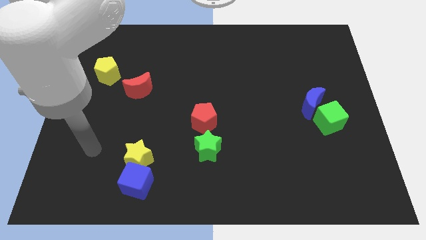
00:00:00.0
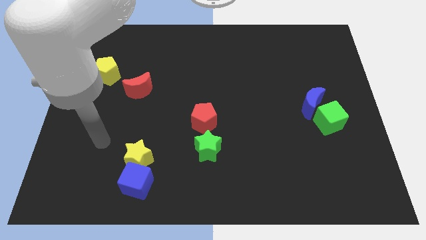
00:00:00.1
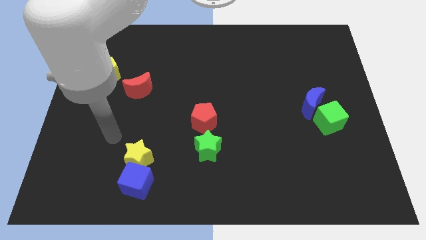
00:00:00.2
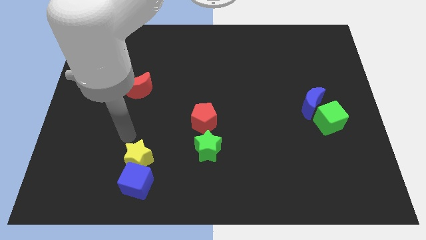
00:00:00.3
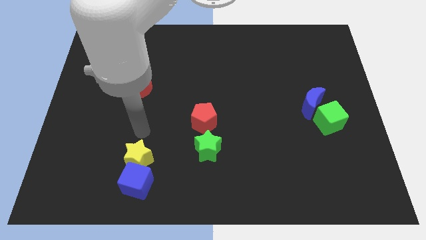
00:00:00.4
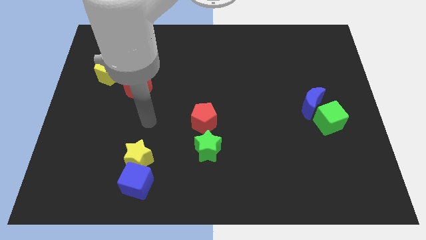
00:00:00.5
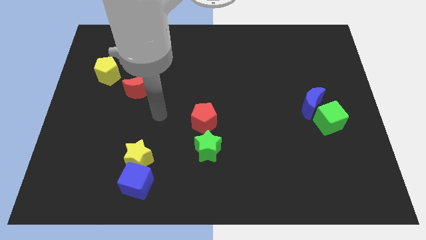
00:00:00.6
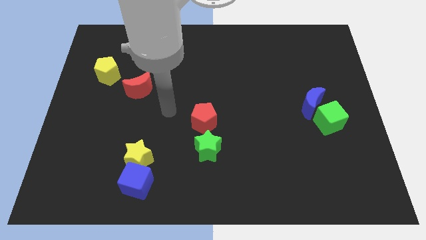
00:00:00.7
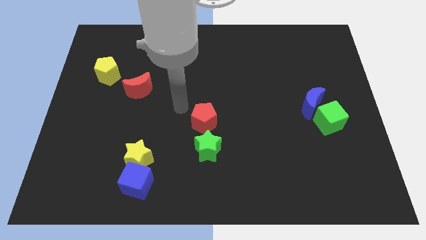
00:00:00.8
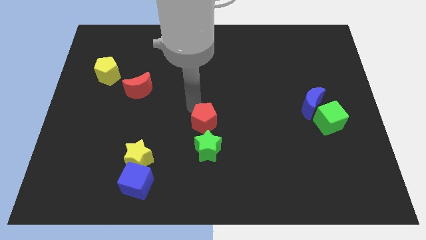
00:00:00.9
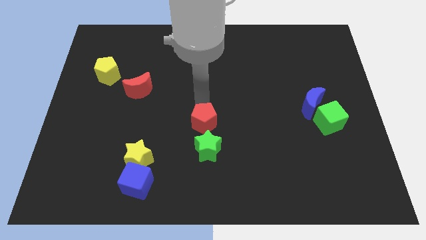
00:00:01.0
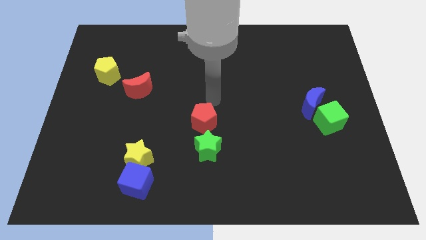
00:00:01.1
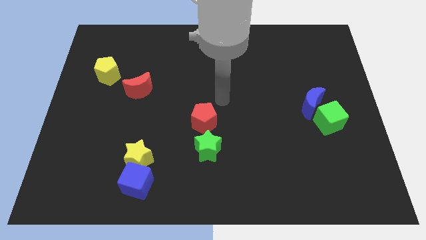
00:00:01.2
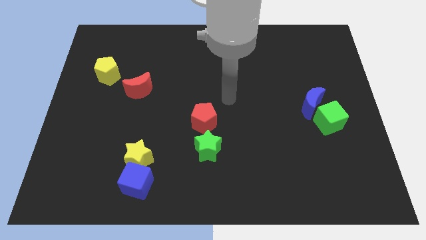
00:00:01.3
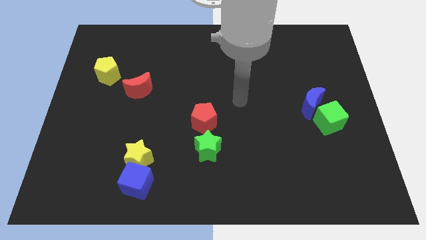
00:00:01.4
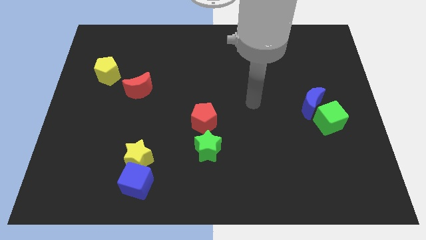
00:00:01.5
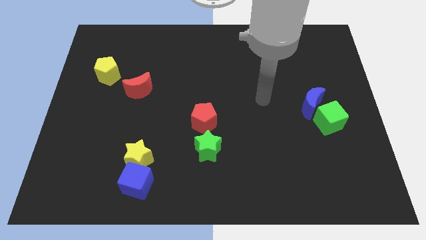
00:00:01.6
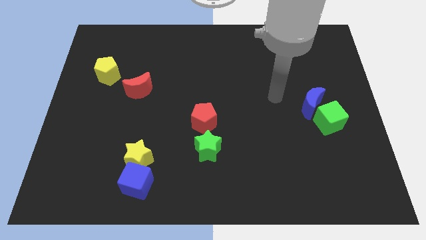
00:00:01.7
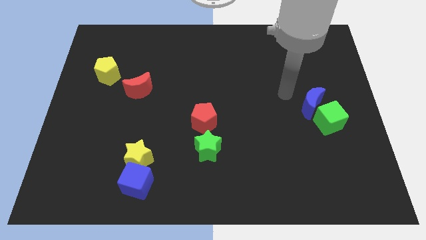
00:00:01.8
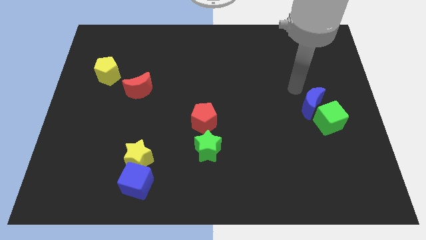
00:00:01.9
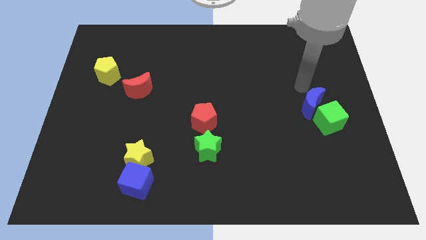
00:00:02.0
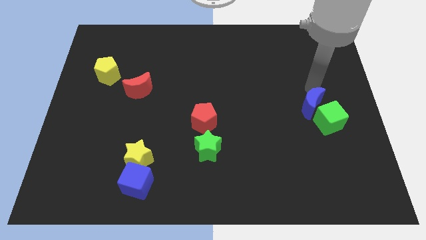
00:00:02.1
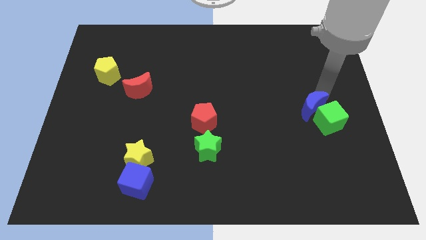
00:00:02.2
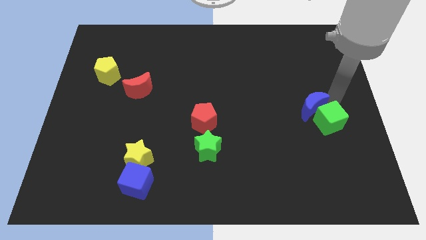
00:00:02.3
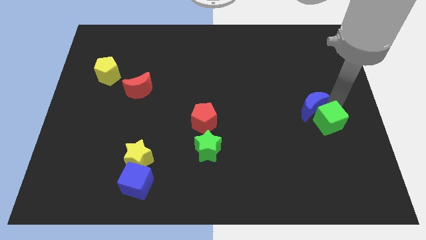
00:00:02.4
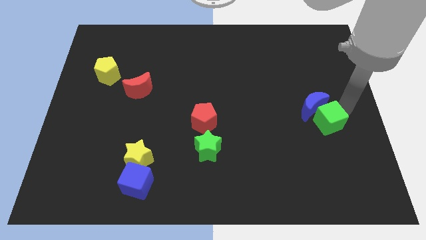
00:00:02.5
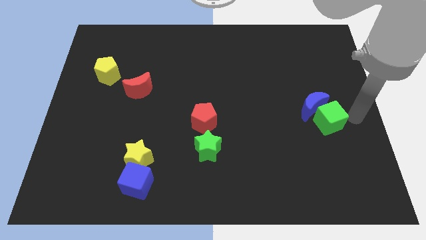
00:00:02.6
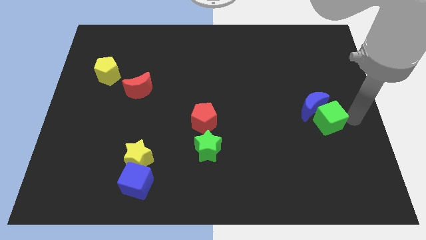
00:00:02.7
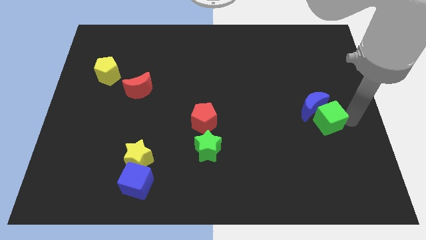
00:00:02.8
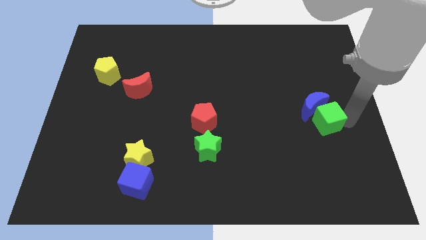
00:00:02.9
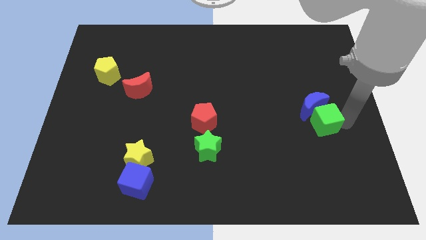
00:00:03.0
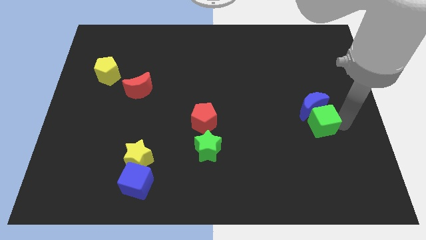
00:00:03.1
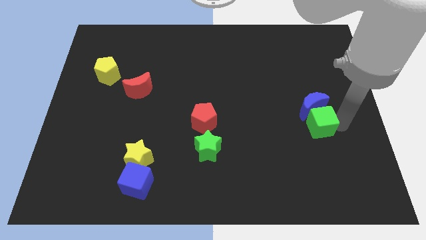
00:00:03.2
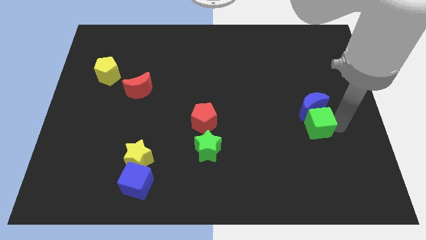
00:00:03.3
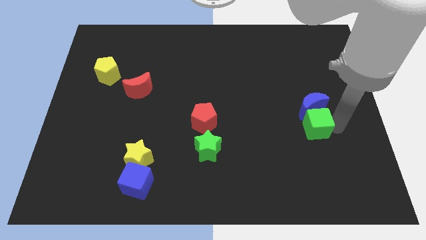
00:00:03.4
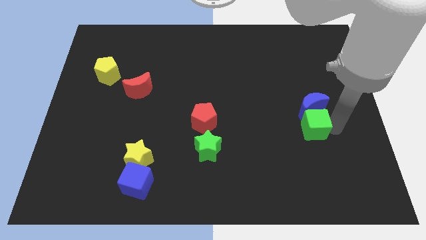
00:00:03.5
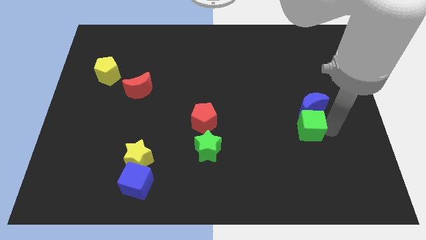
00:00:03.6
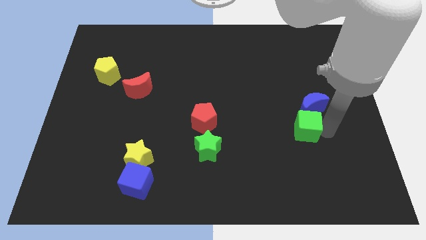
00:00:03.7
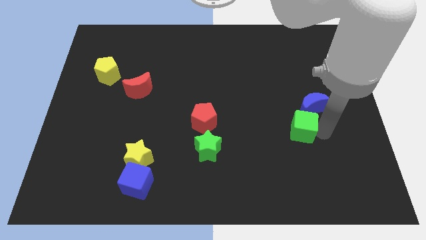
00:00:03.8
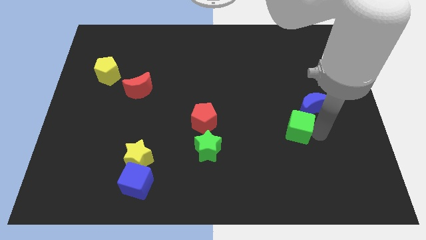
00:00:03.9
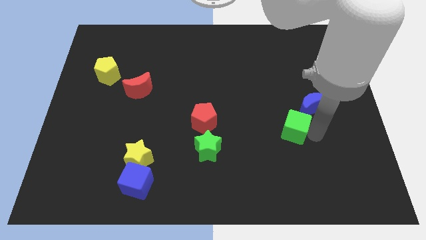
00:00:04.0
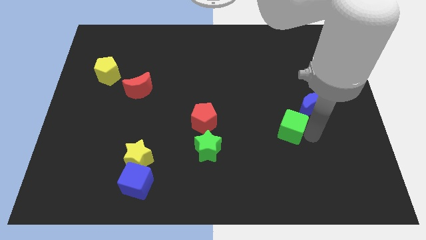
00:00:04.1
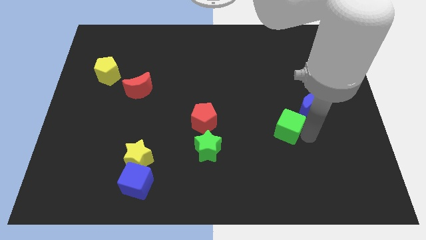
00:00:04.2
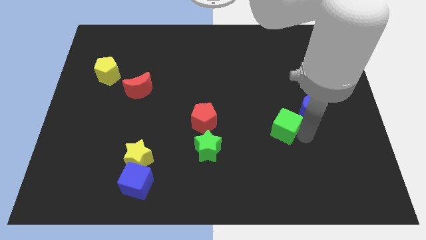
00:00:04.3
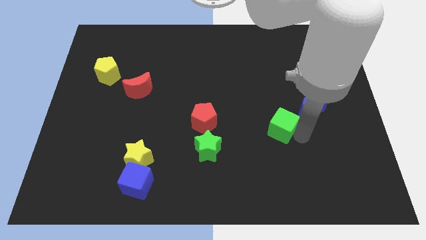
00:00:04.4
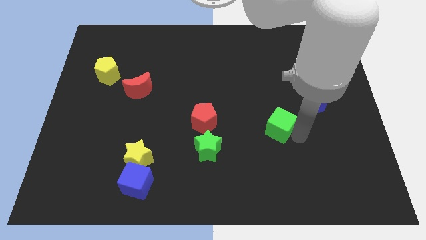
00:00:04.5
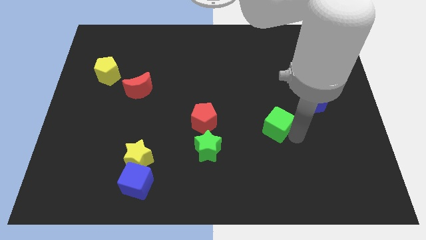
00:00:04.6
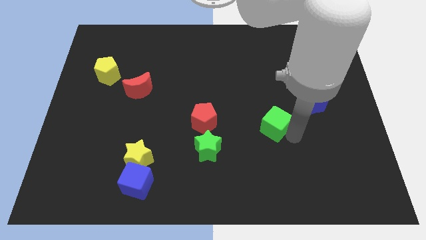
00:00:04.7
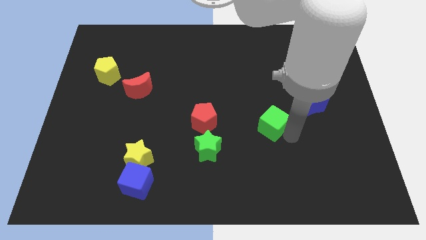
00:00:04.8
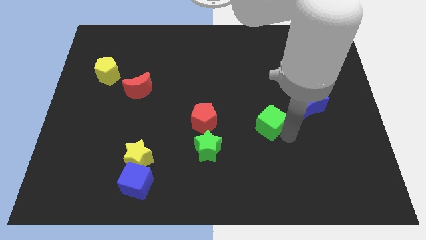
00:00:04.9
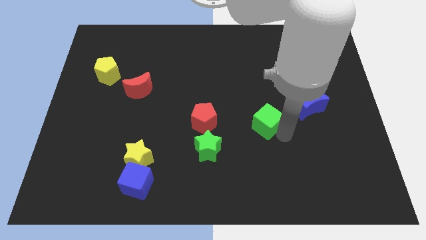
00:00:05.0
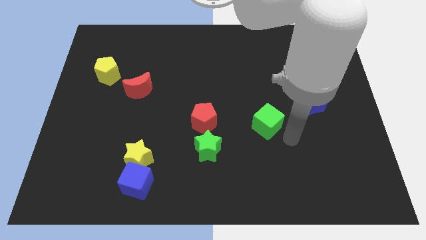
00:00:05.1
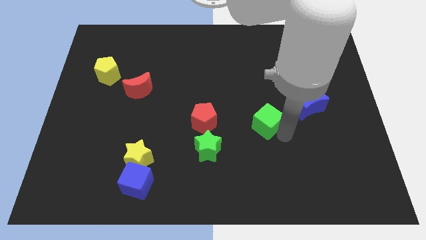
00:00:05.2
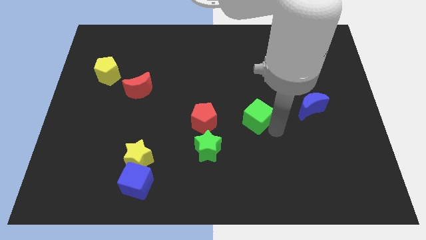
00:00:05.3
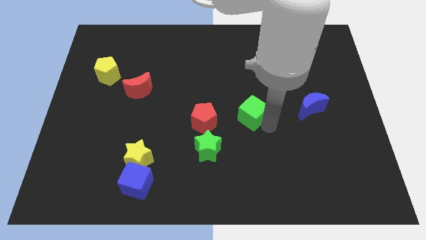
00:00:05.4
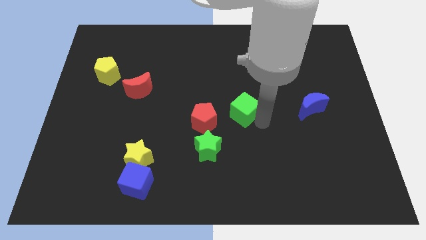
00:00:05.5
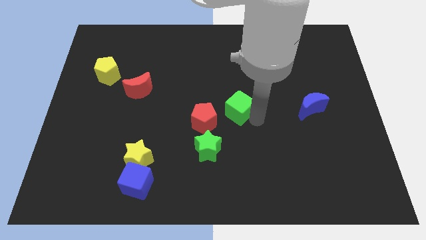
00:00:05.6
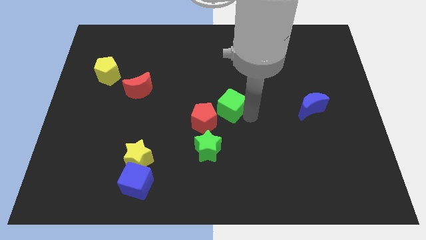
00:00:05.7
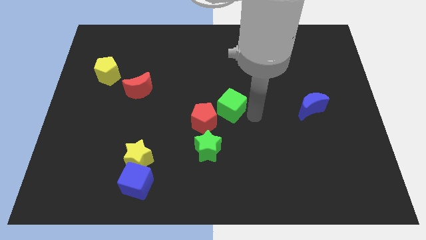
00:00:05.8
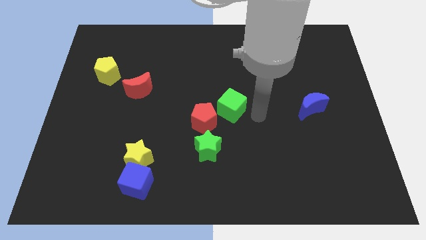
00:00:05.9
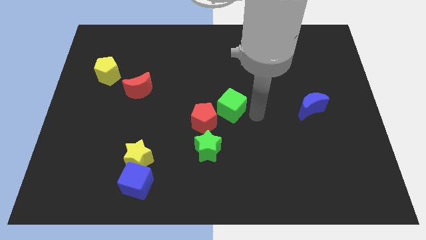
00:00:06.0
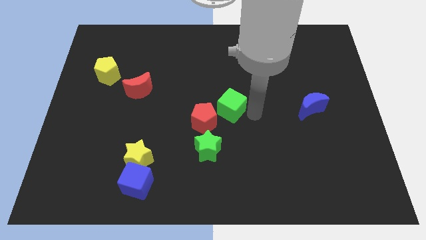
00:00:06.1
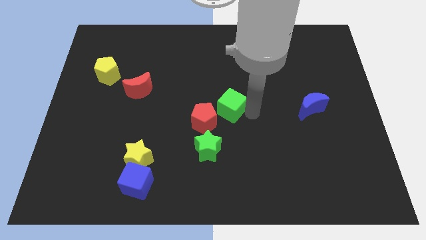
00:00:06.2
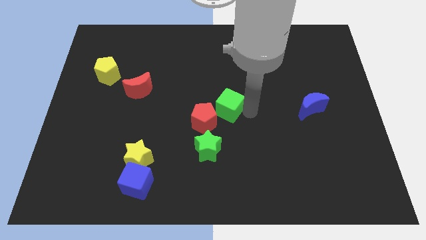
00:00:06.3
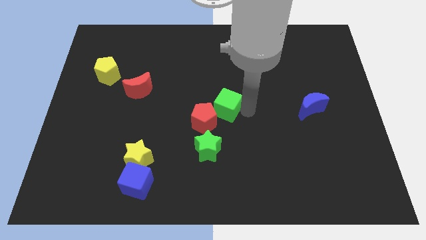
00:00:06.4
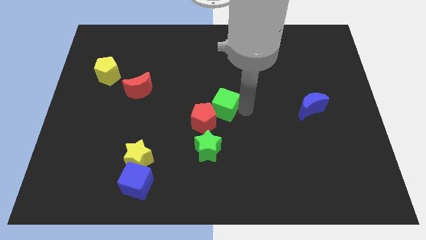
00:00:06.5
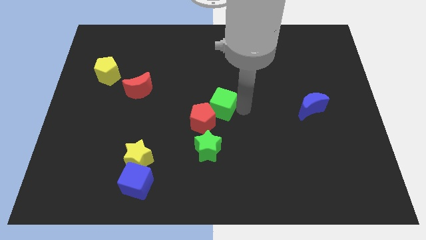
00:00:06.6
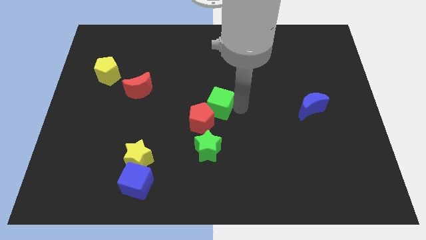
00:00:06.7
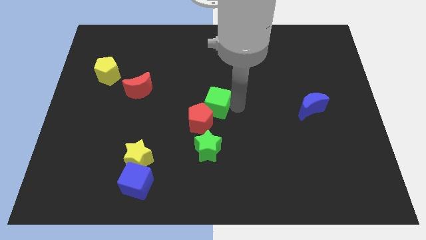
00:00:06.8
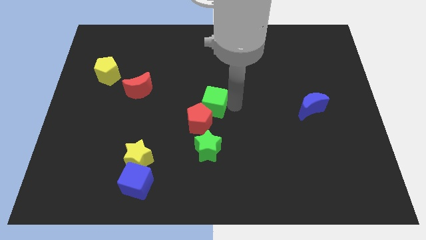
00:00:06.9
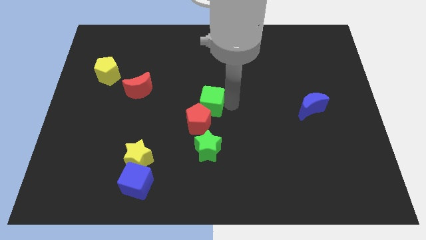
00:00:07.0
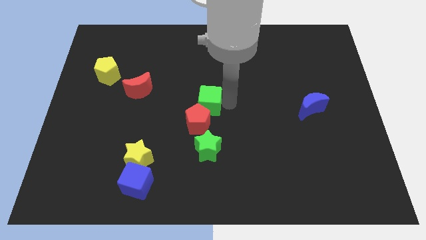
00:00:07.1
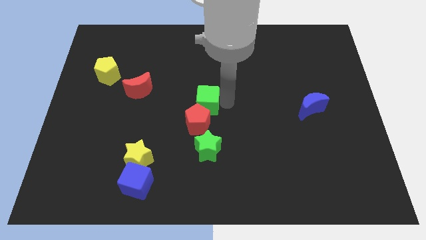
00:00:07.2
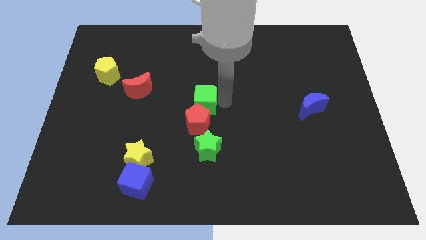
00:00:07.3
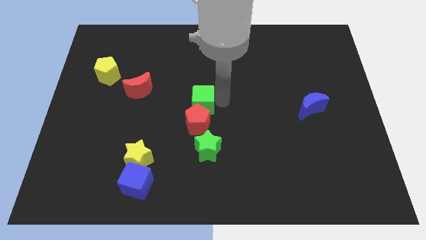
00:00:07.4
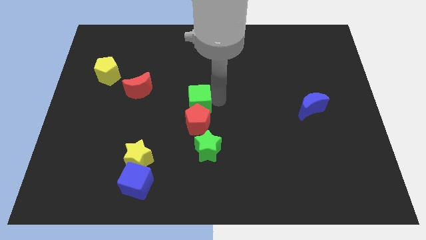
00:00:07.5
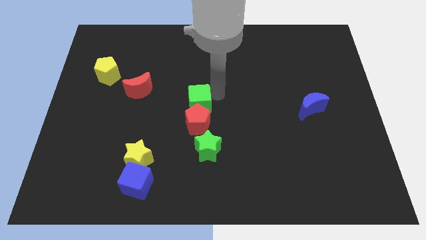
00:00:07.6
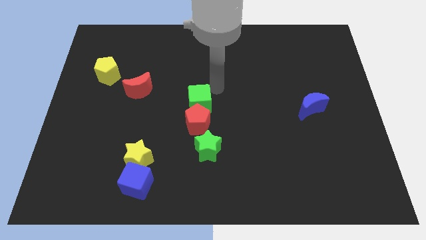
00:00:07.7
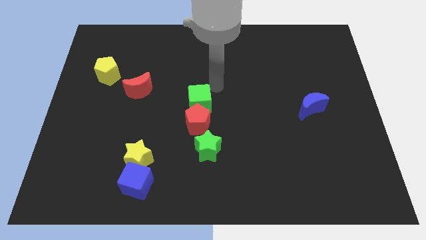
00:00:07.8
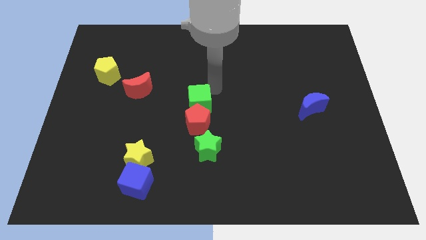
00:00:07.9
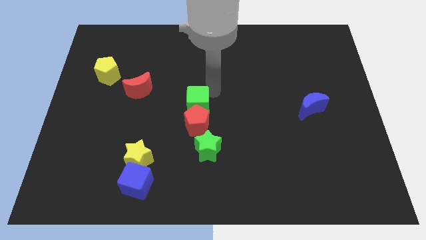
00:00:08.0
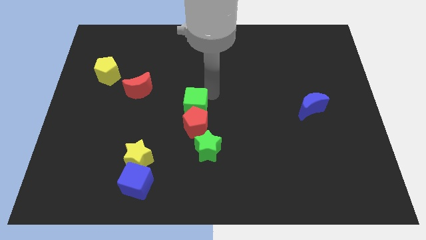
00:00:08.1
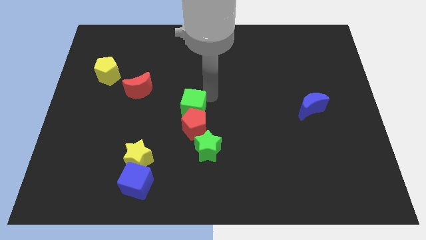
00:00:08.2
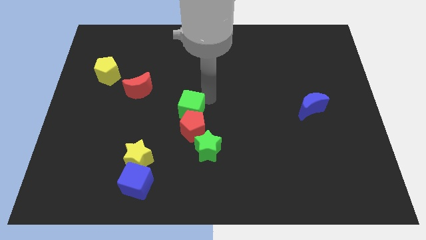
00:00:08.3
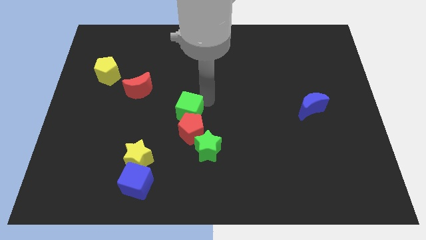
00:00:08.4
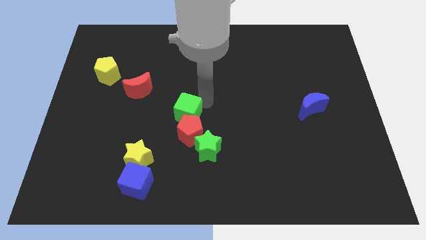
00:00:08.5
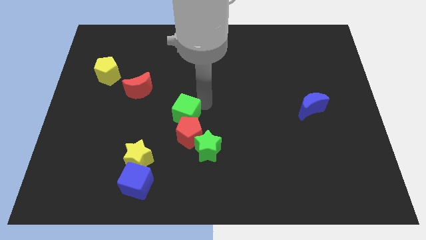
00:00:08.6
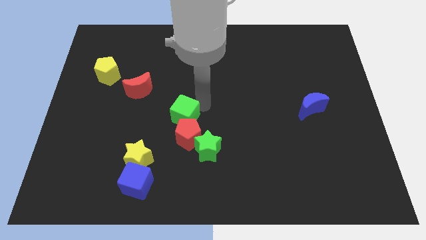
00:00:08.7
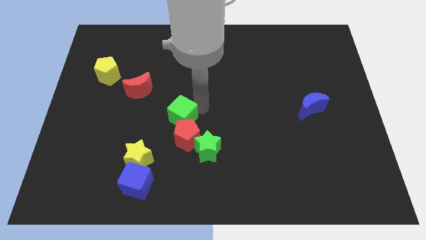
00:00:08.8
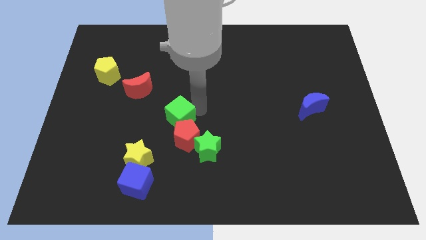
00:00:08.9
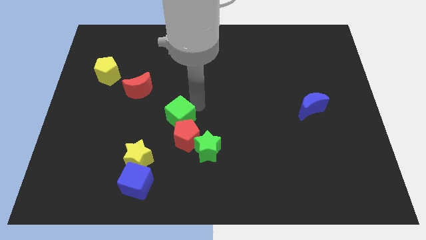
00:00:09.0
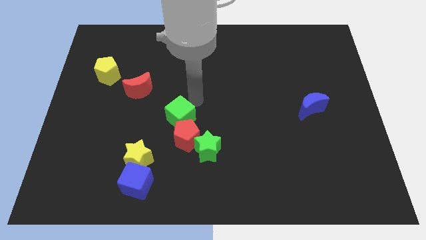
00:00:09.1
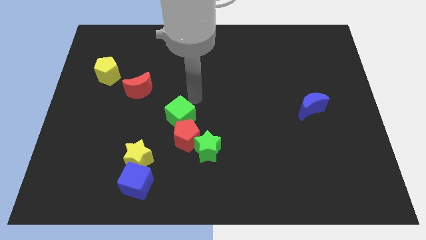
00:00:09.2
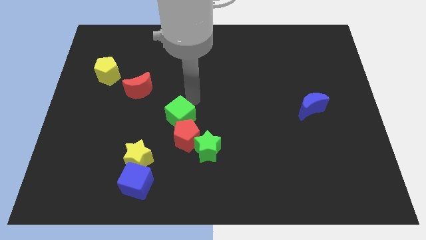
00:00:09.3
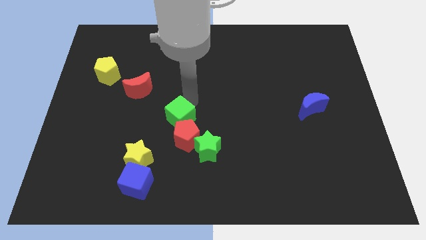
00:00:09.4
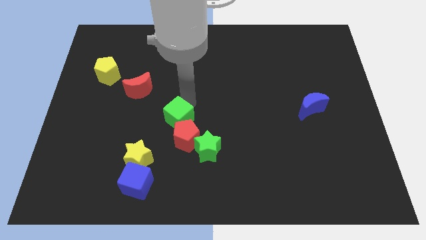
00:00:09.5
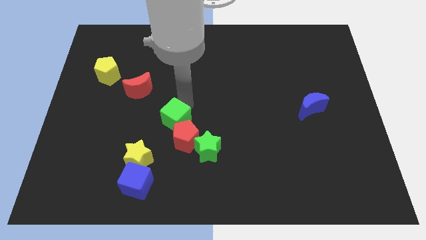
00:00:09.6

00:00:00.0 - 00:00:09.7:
move the green cube to the top right side of the yellow star
